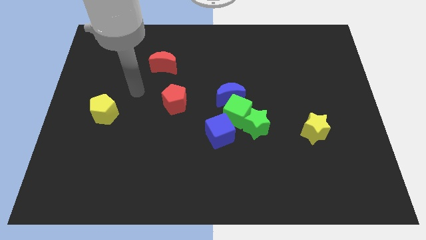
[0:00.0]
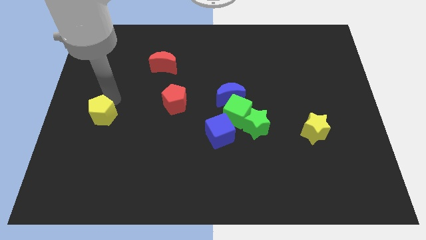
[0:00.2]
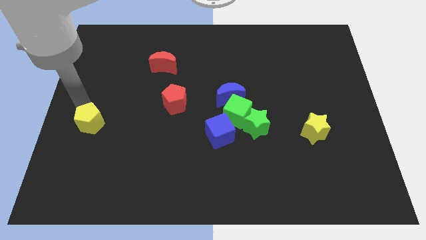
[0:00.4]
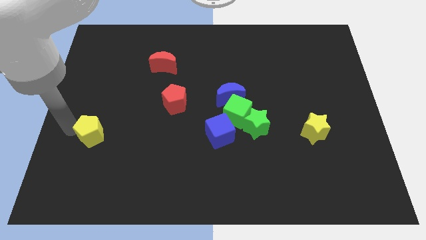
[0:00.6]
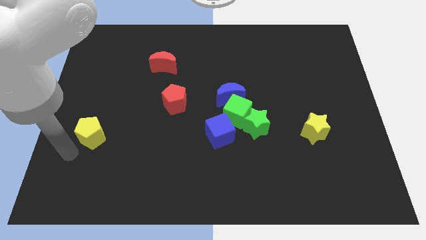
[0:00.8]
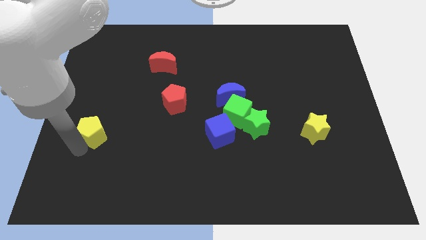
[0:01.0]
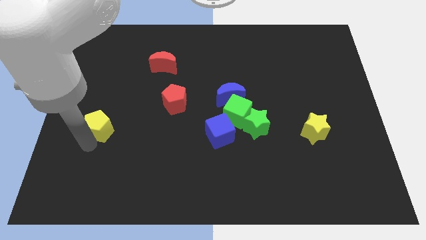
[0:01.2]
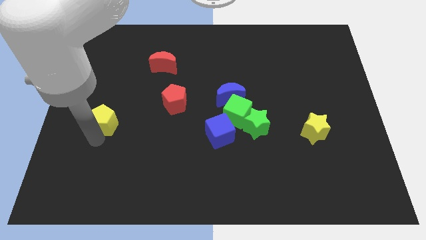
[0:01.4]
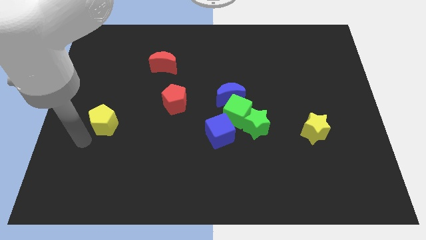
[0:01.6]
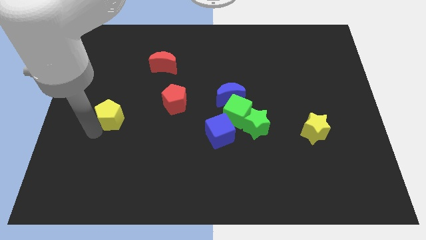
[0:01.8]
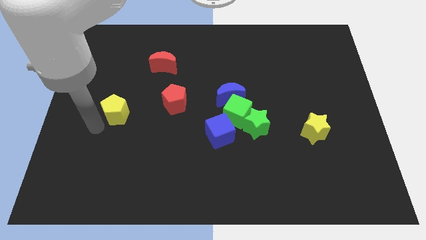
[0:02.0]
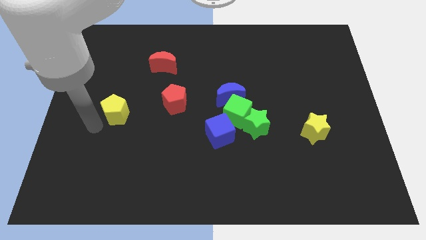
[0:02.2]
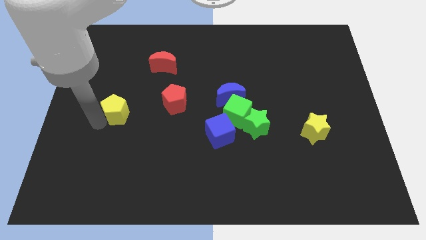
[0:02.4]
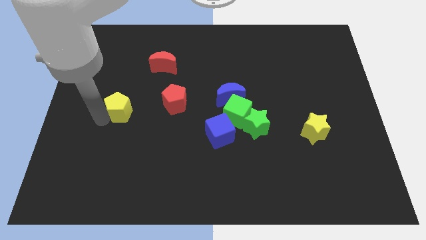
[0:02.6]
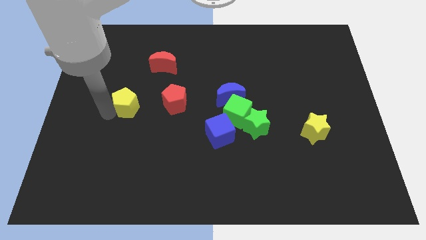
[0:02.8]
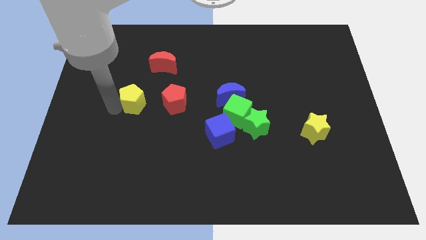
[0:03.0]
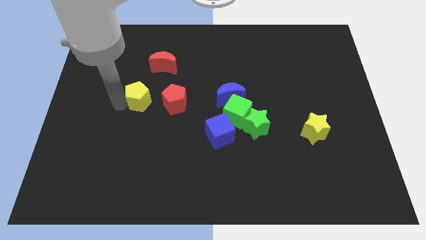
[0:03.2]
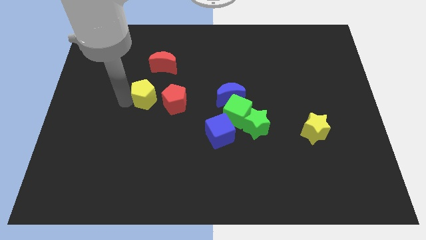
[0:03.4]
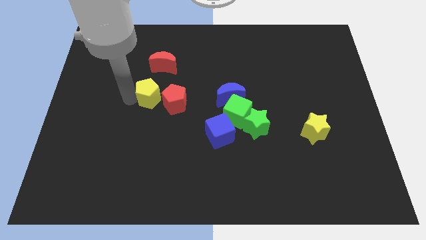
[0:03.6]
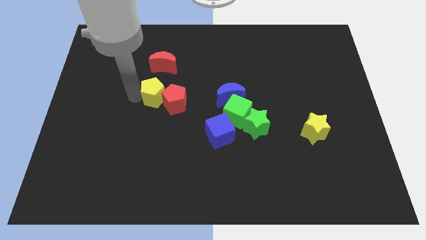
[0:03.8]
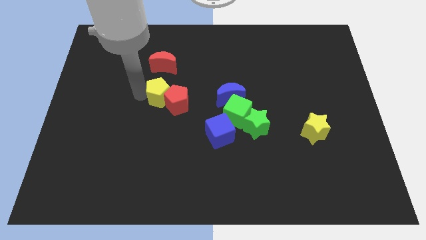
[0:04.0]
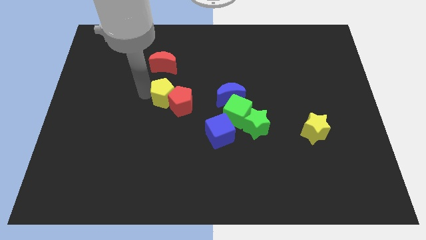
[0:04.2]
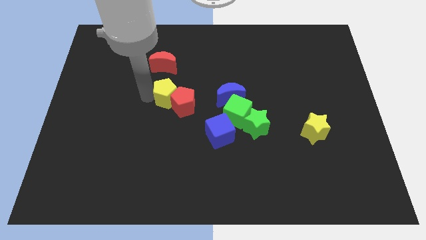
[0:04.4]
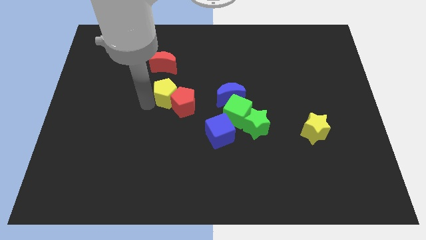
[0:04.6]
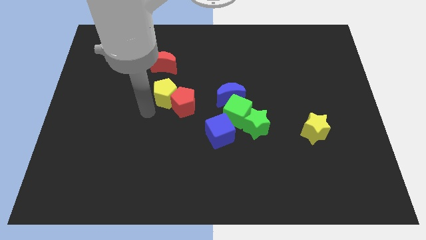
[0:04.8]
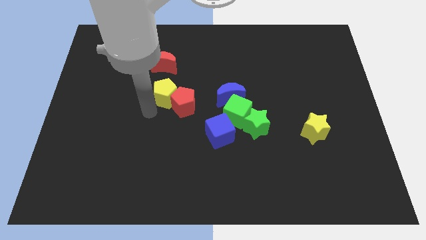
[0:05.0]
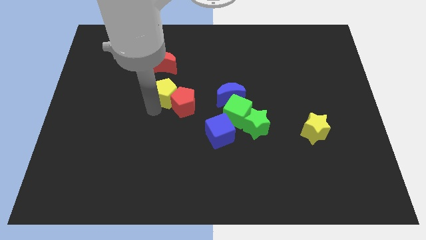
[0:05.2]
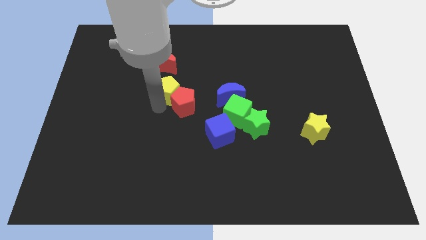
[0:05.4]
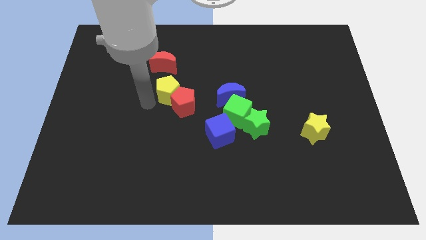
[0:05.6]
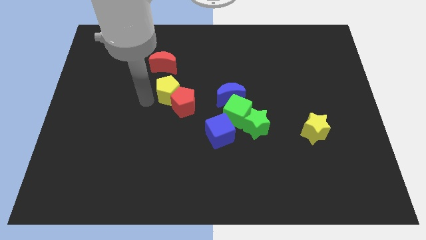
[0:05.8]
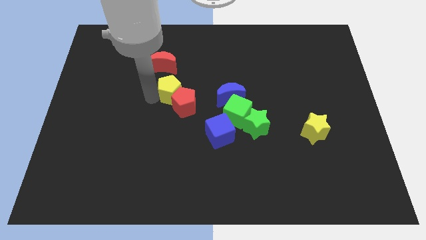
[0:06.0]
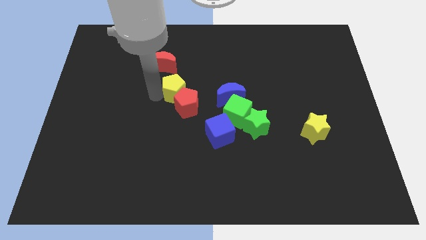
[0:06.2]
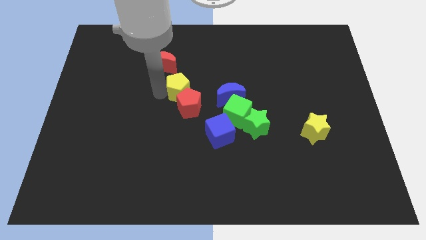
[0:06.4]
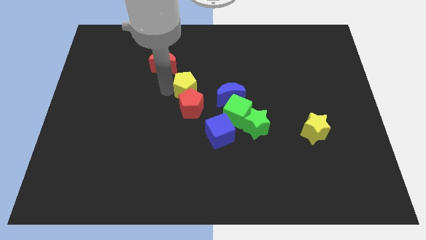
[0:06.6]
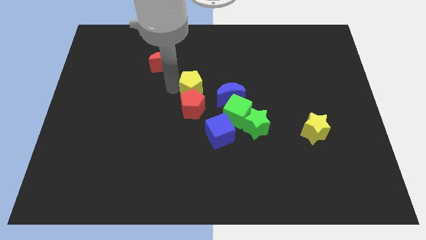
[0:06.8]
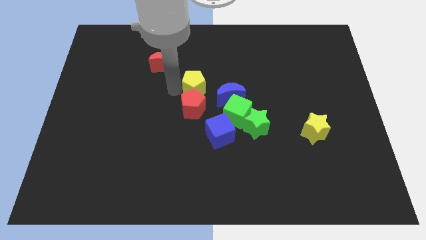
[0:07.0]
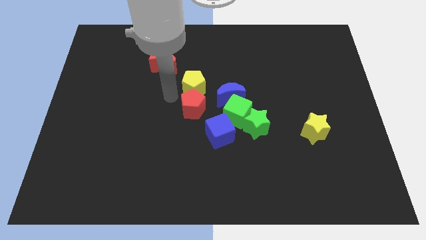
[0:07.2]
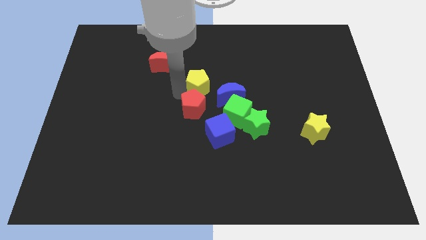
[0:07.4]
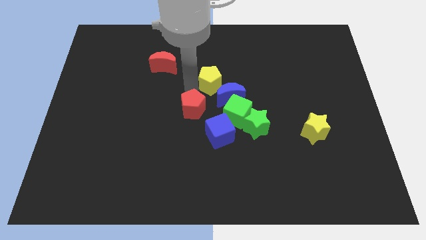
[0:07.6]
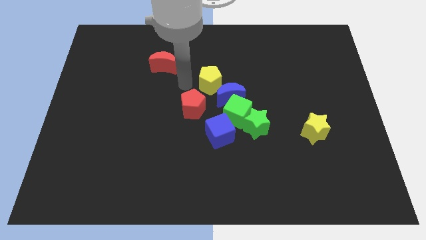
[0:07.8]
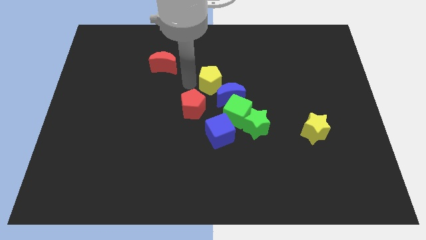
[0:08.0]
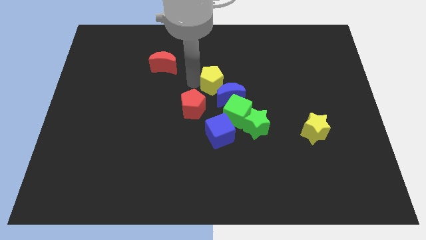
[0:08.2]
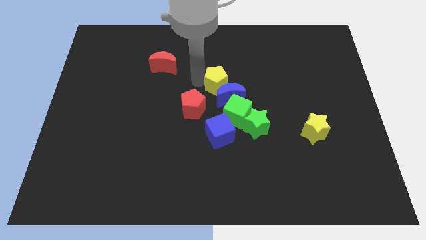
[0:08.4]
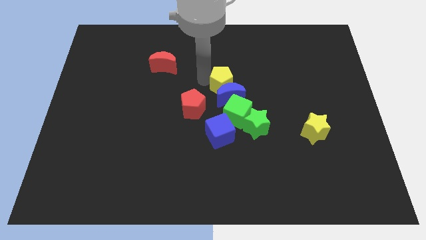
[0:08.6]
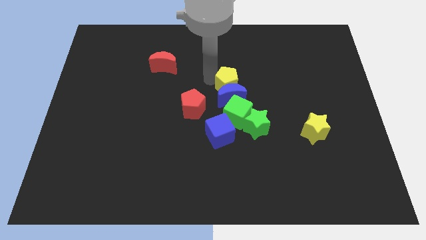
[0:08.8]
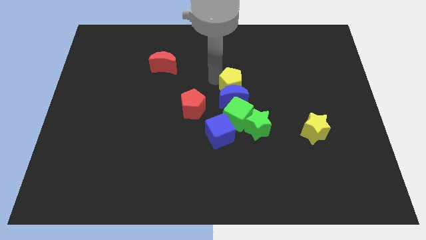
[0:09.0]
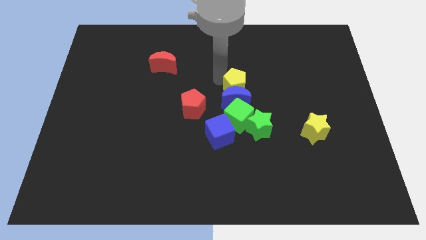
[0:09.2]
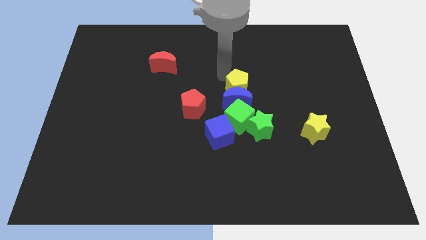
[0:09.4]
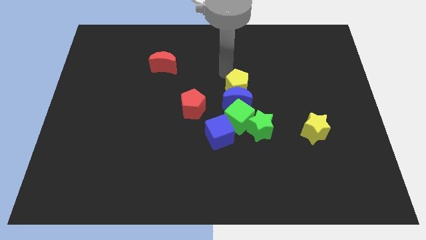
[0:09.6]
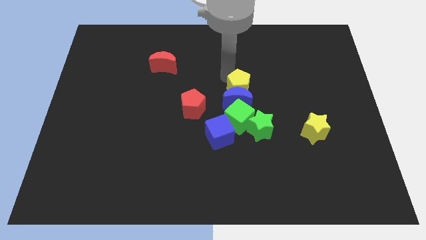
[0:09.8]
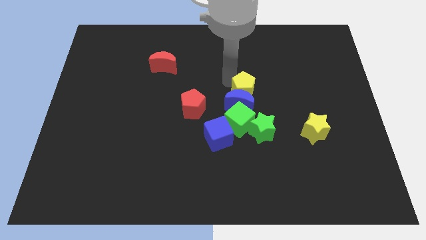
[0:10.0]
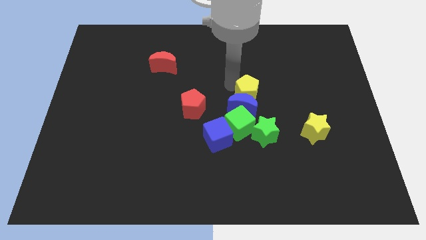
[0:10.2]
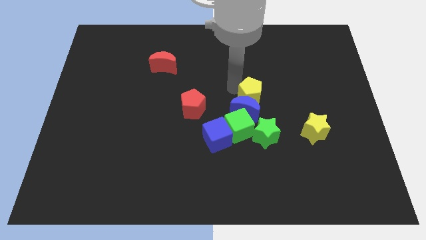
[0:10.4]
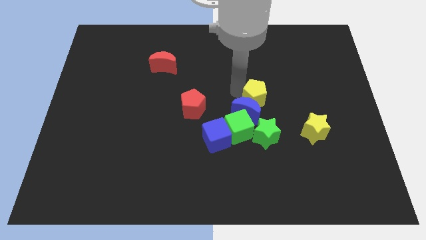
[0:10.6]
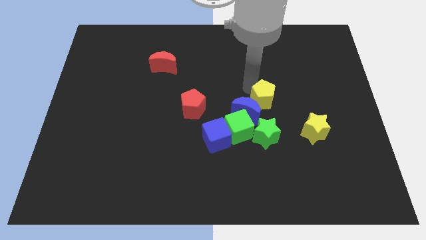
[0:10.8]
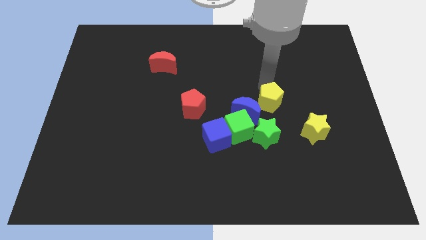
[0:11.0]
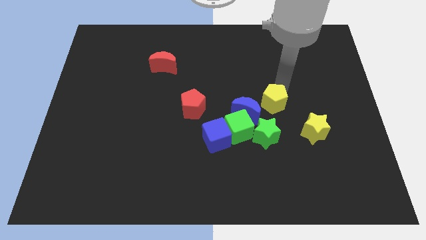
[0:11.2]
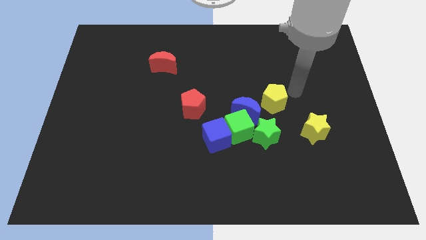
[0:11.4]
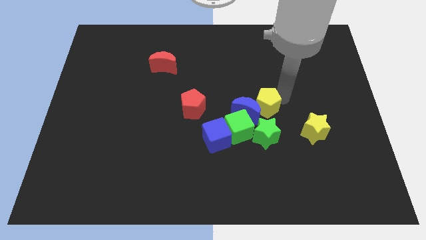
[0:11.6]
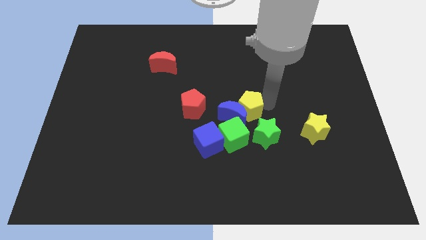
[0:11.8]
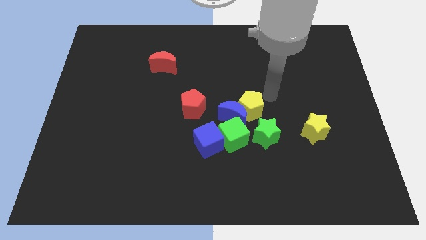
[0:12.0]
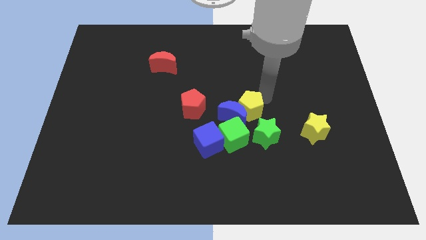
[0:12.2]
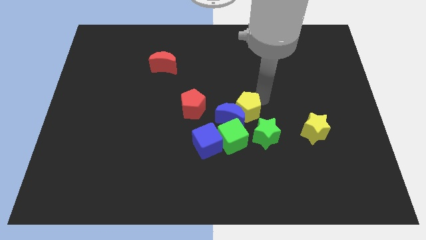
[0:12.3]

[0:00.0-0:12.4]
put the yellow pentagon to the top right side of the blue cube
